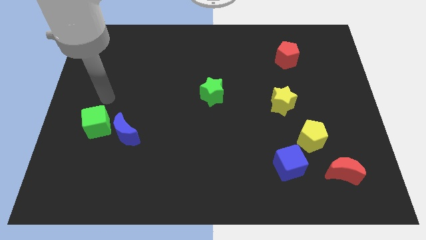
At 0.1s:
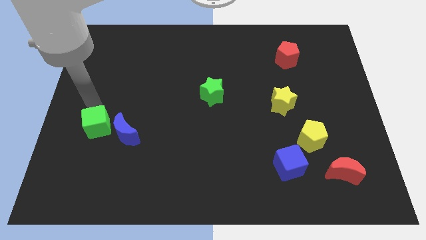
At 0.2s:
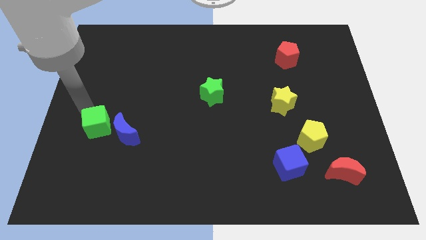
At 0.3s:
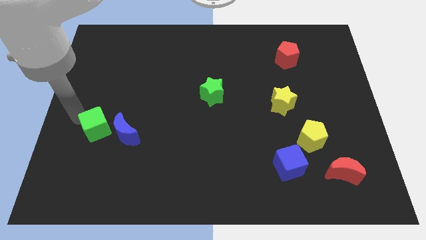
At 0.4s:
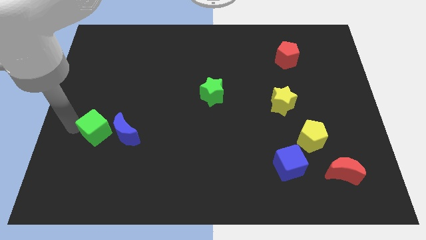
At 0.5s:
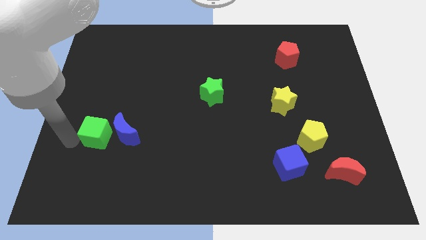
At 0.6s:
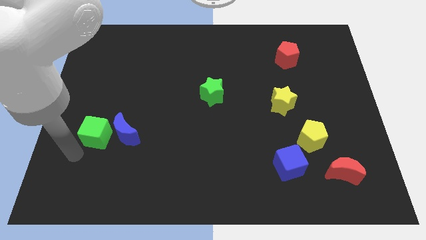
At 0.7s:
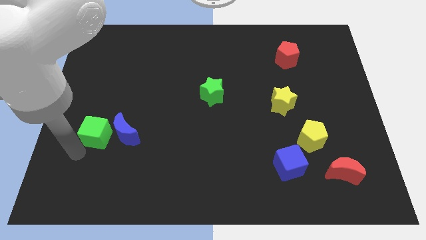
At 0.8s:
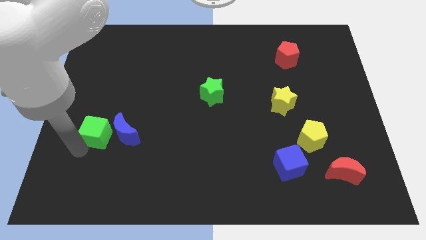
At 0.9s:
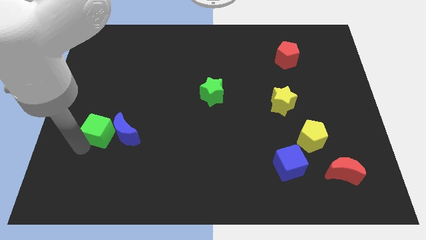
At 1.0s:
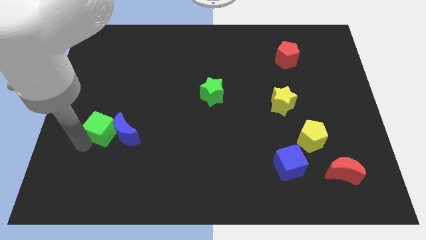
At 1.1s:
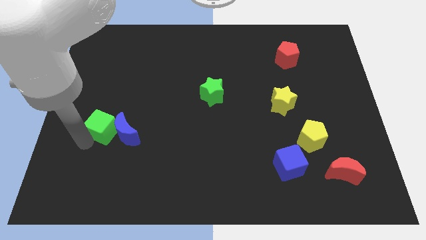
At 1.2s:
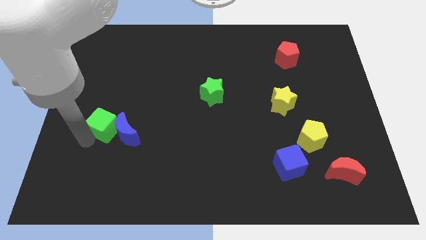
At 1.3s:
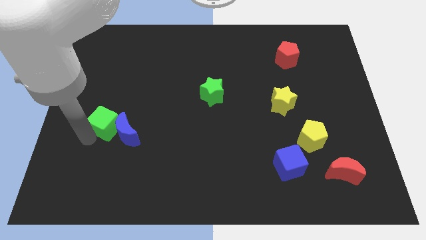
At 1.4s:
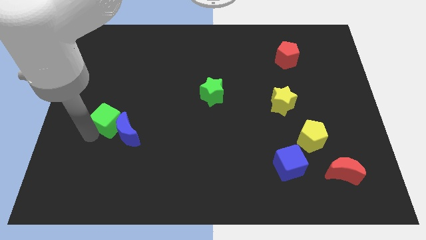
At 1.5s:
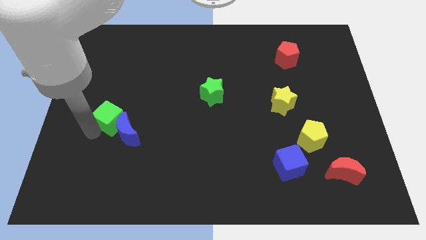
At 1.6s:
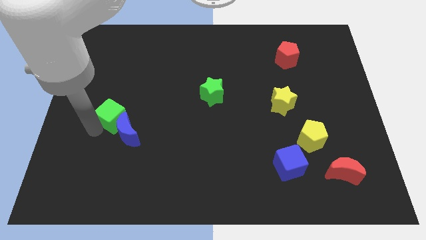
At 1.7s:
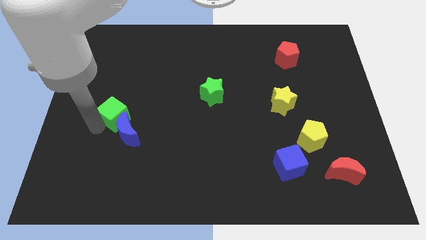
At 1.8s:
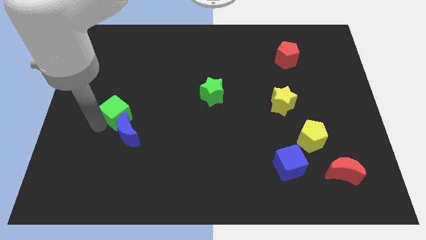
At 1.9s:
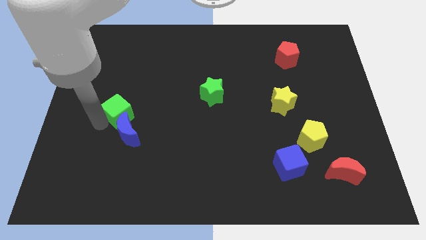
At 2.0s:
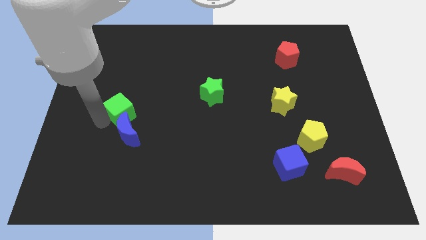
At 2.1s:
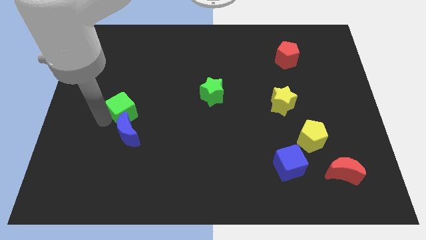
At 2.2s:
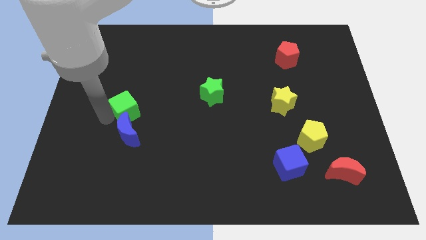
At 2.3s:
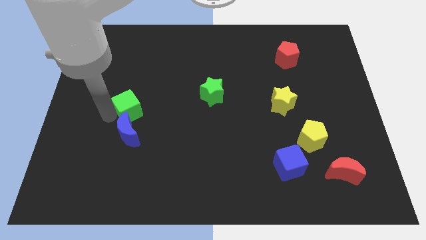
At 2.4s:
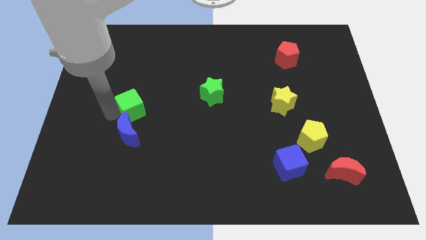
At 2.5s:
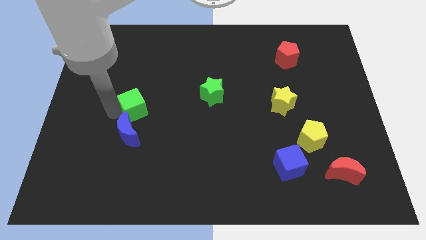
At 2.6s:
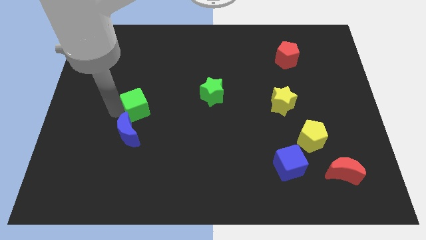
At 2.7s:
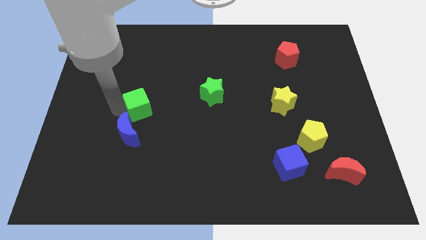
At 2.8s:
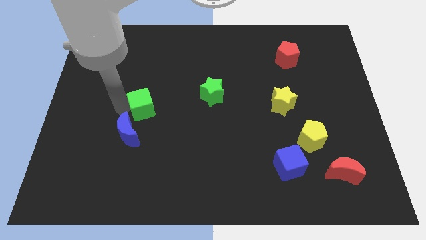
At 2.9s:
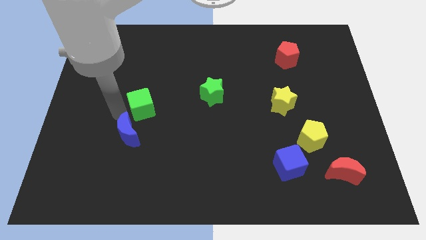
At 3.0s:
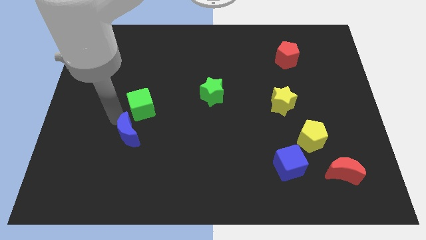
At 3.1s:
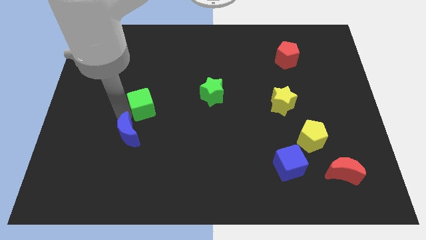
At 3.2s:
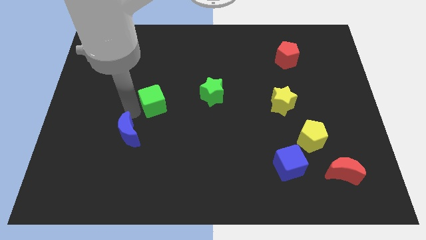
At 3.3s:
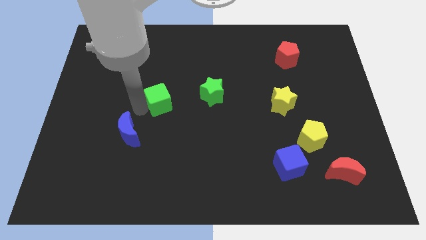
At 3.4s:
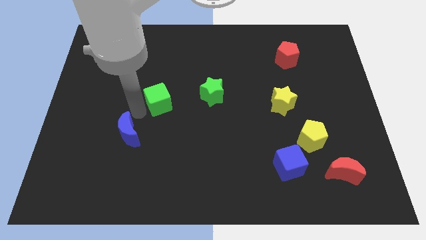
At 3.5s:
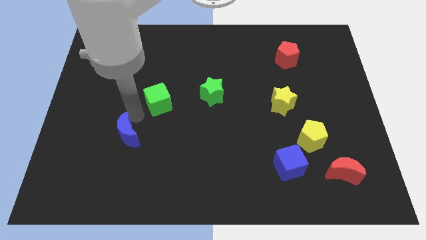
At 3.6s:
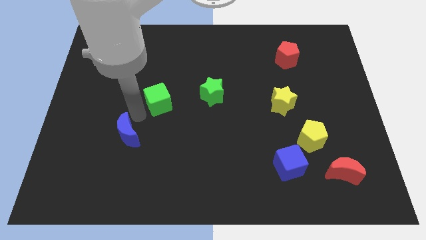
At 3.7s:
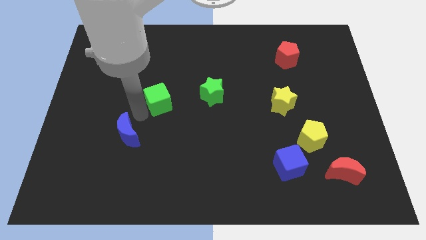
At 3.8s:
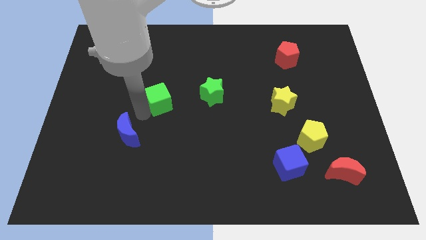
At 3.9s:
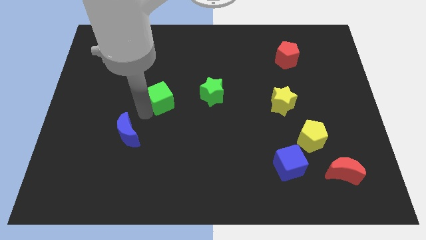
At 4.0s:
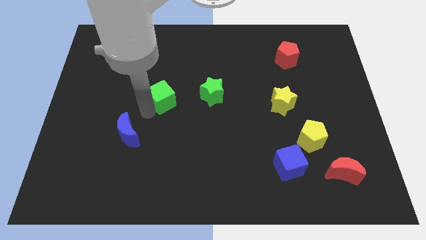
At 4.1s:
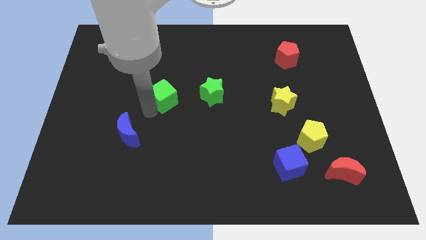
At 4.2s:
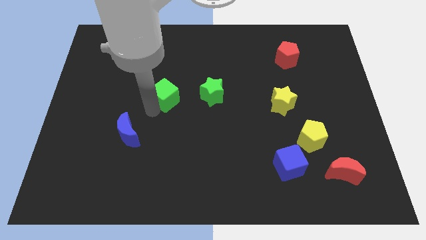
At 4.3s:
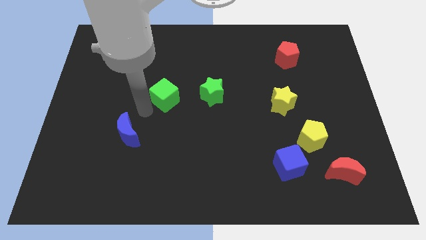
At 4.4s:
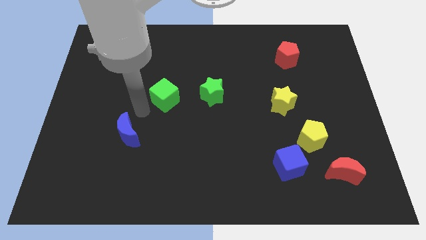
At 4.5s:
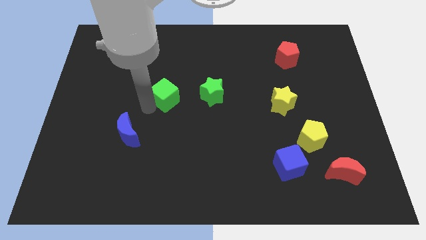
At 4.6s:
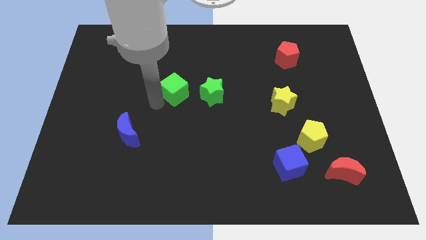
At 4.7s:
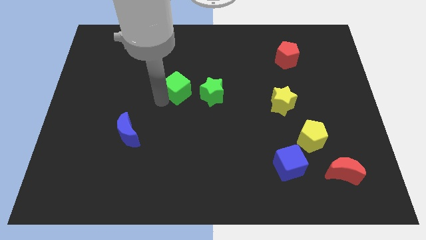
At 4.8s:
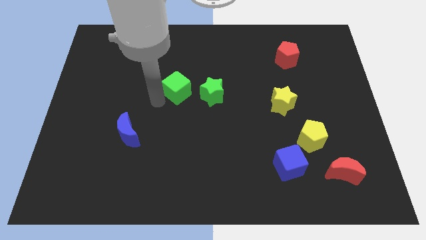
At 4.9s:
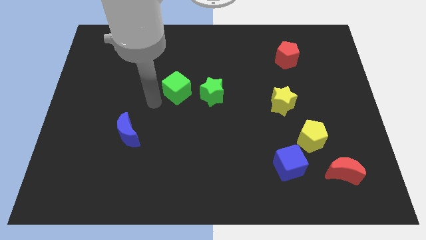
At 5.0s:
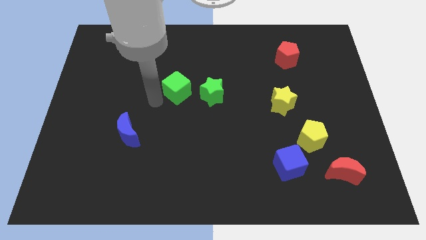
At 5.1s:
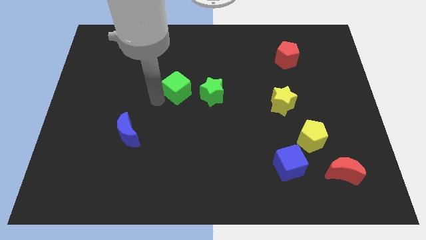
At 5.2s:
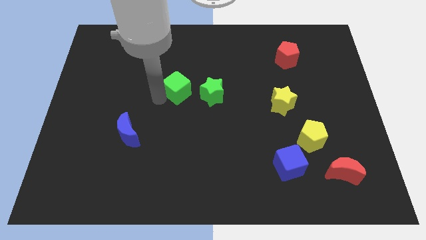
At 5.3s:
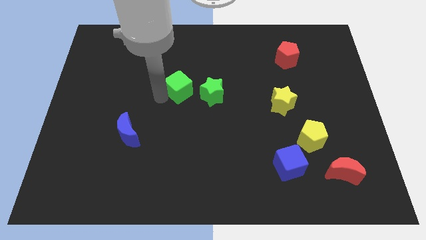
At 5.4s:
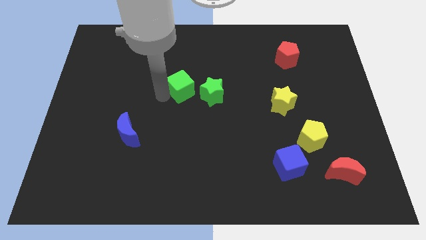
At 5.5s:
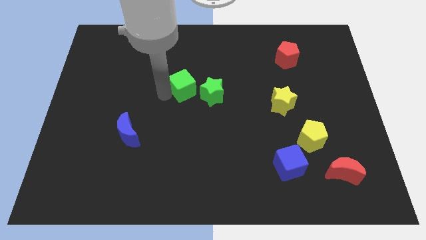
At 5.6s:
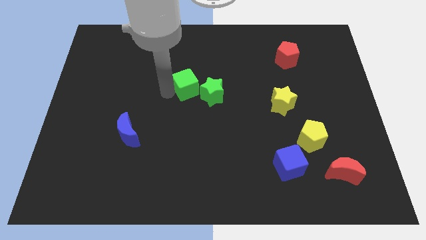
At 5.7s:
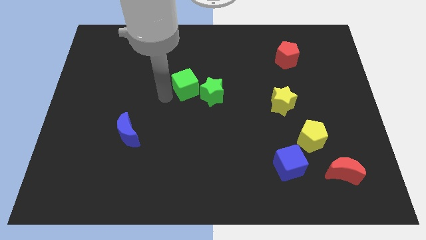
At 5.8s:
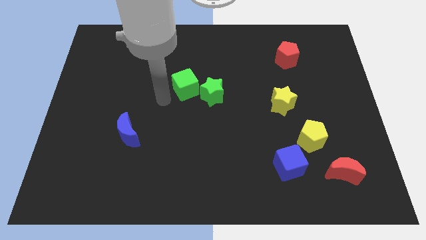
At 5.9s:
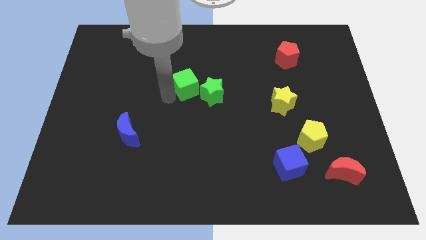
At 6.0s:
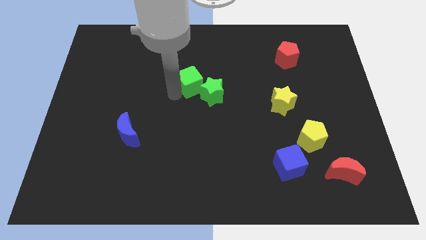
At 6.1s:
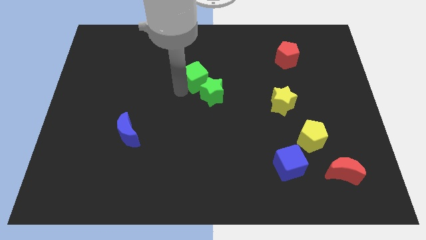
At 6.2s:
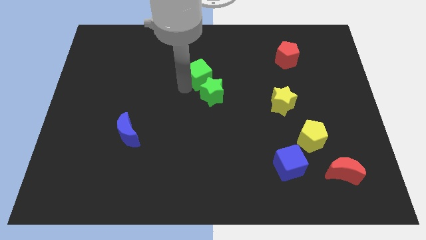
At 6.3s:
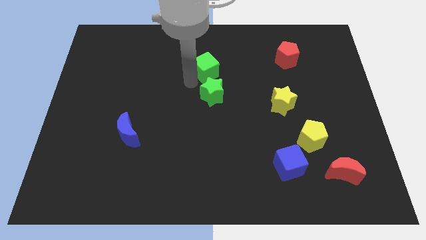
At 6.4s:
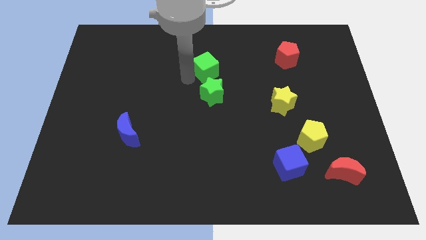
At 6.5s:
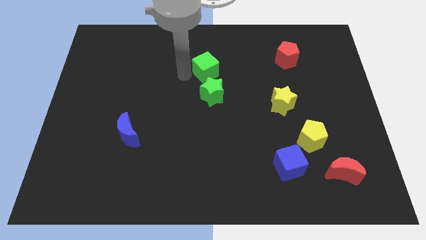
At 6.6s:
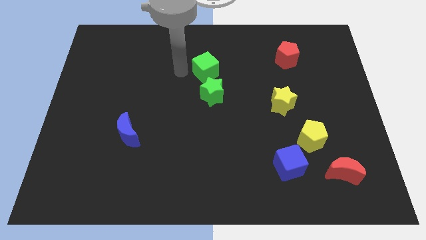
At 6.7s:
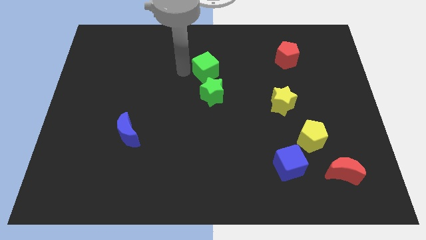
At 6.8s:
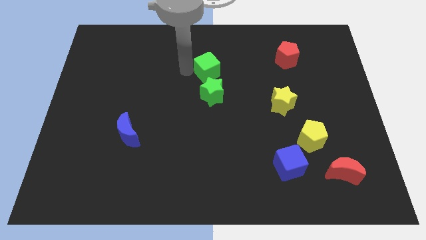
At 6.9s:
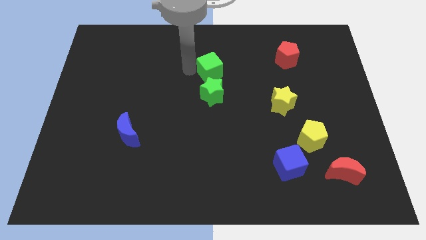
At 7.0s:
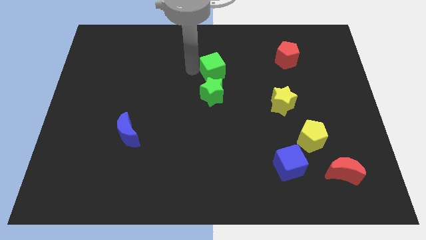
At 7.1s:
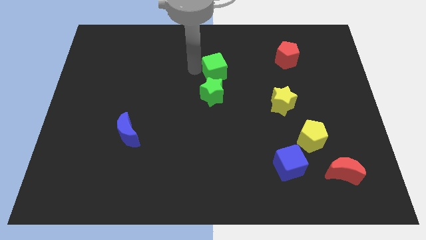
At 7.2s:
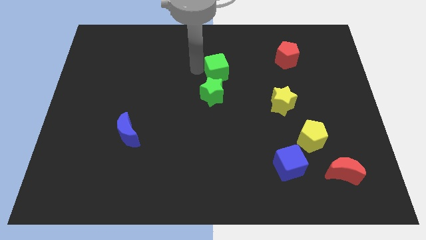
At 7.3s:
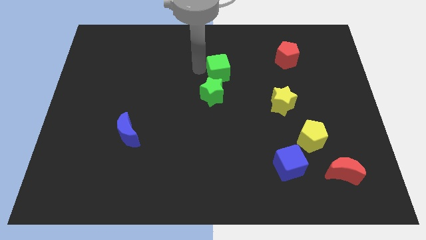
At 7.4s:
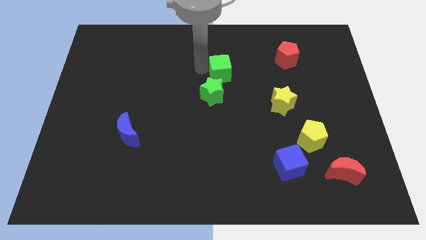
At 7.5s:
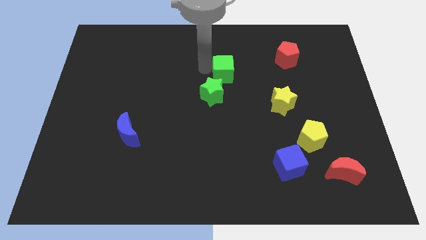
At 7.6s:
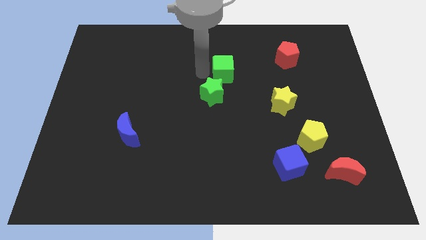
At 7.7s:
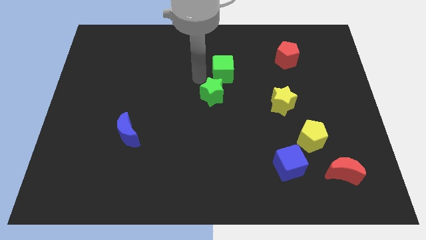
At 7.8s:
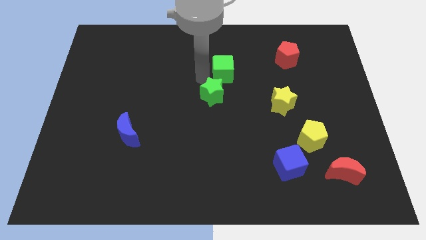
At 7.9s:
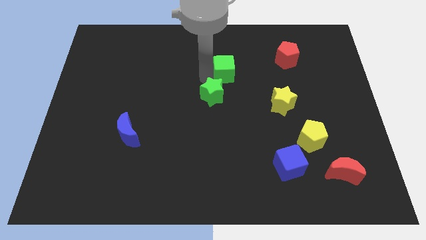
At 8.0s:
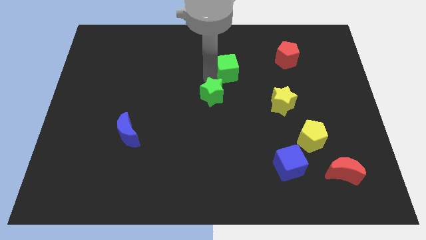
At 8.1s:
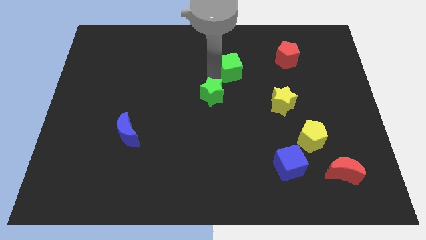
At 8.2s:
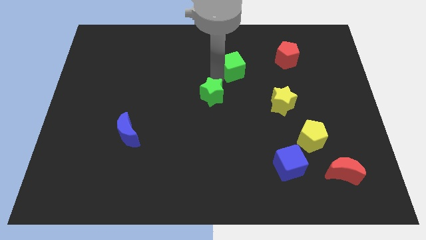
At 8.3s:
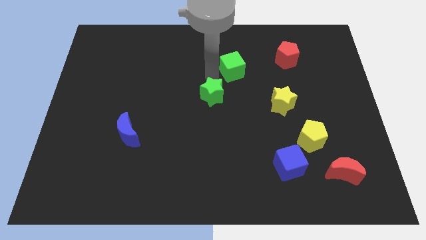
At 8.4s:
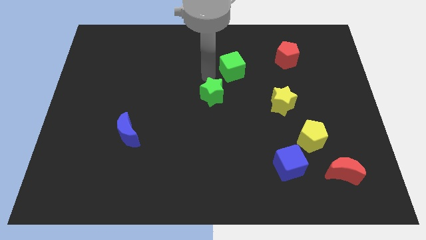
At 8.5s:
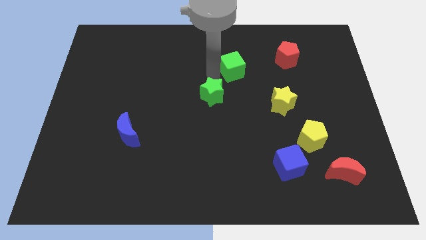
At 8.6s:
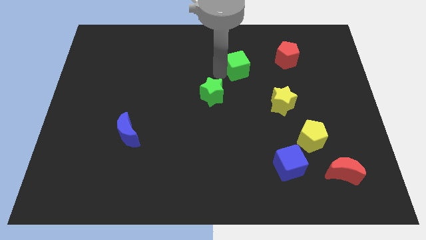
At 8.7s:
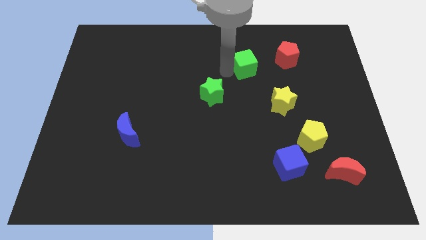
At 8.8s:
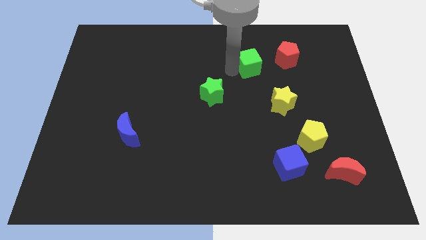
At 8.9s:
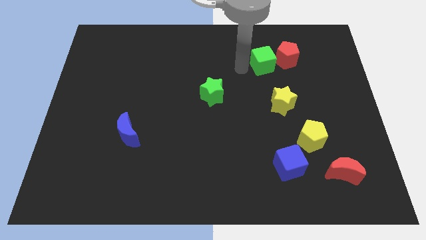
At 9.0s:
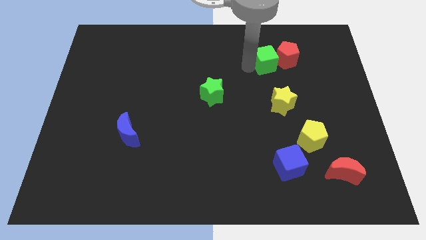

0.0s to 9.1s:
put the green cube to the red pentagon
